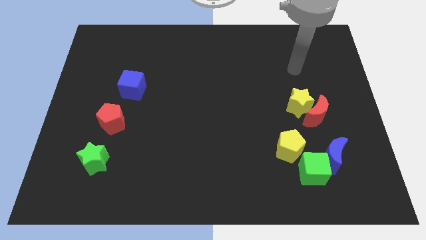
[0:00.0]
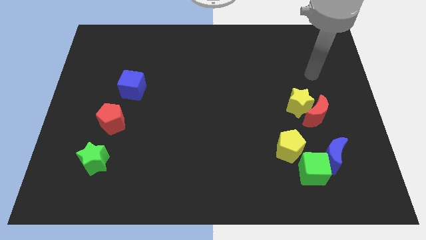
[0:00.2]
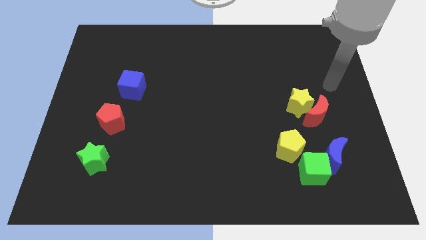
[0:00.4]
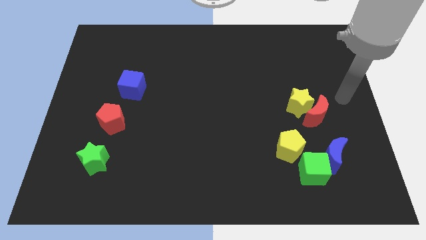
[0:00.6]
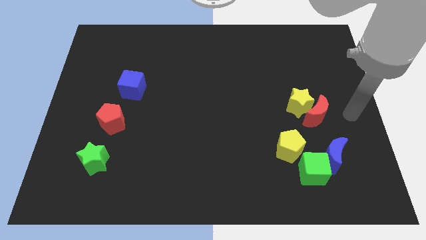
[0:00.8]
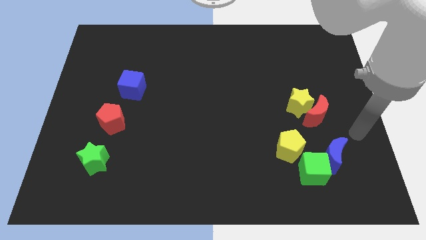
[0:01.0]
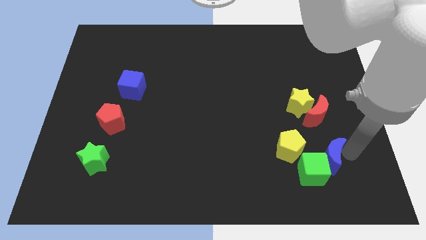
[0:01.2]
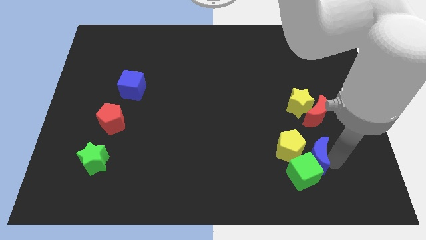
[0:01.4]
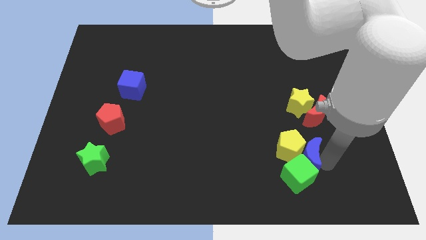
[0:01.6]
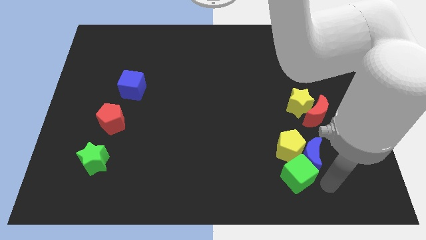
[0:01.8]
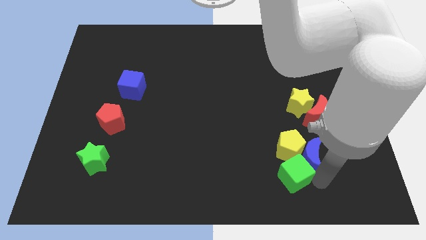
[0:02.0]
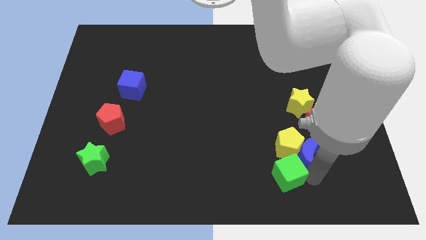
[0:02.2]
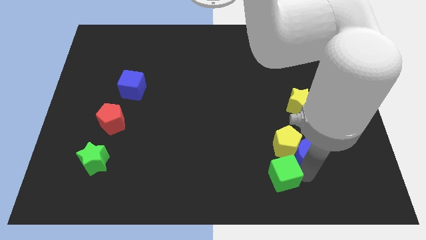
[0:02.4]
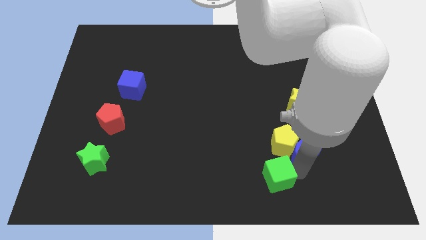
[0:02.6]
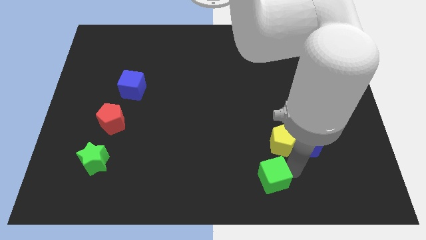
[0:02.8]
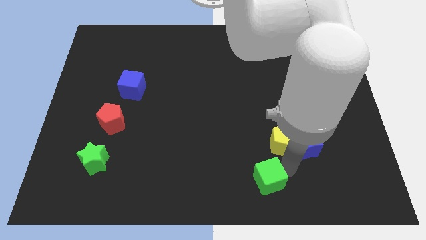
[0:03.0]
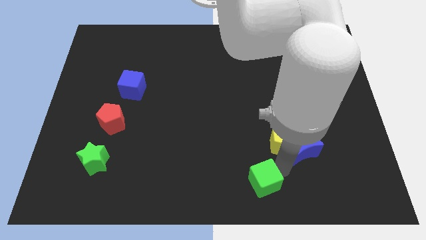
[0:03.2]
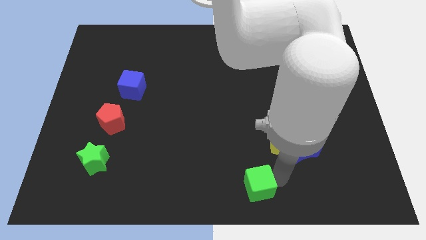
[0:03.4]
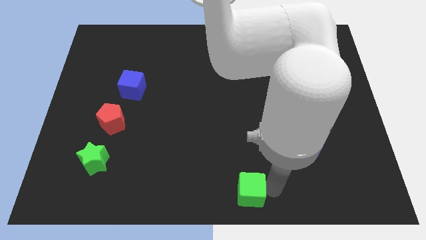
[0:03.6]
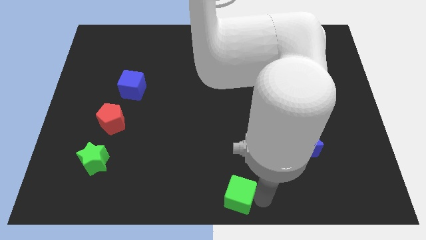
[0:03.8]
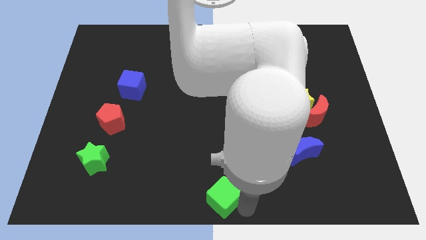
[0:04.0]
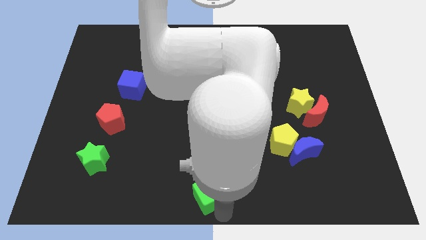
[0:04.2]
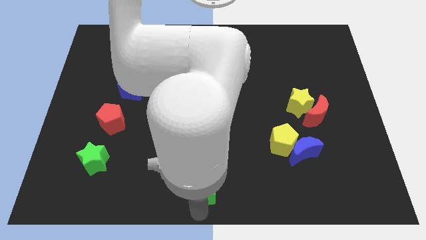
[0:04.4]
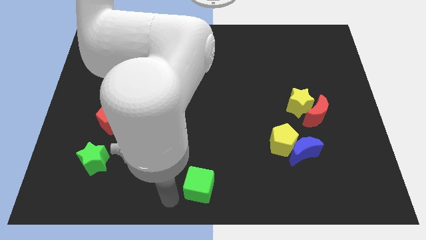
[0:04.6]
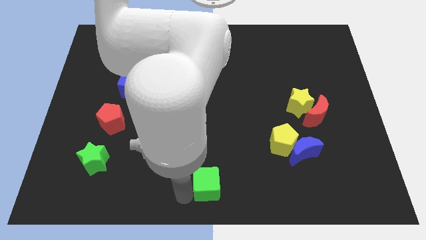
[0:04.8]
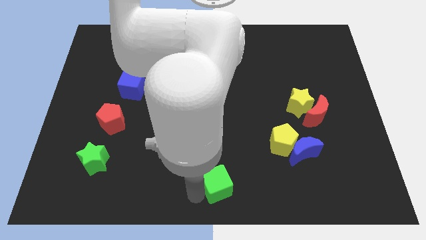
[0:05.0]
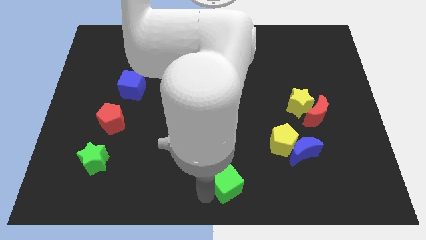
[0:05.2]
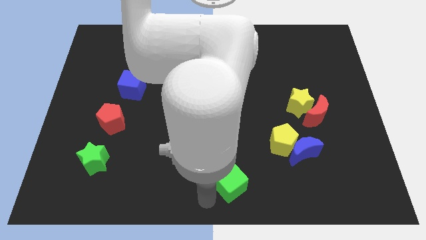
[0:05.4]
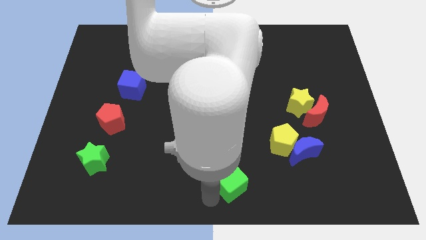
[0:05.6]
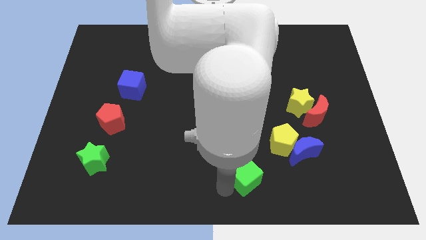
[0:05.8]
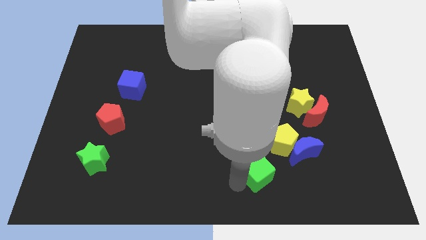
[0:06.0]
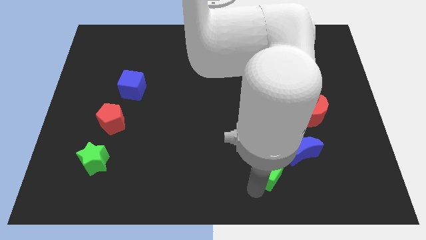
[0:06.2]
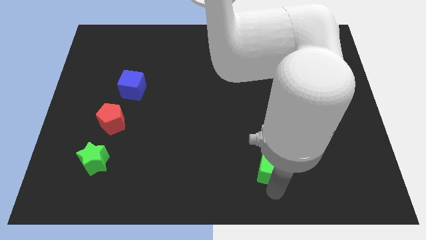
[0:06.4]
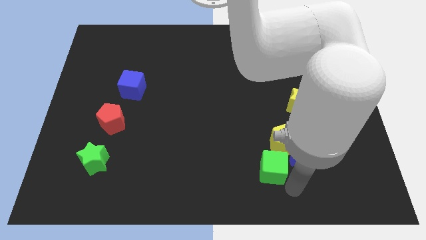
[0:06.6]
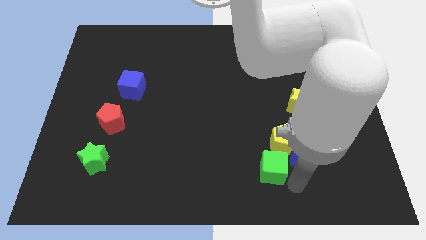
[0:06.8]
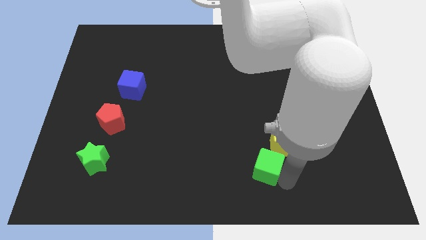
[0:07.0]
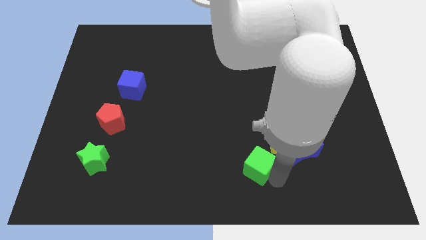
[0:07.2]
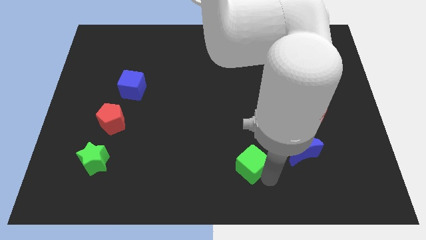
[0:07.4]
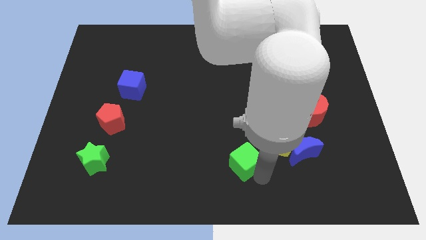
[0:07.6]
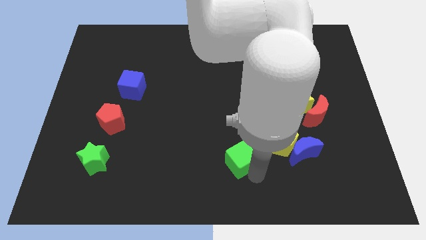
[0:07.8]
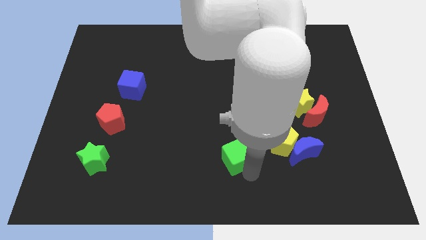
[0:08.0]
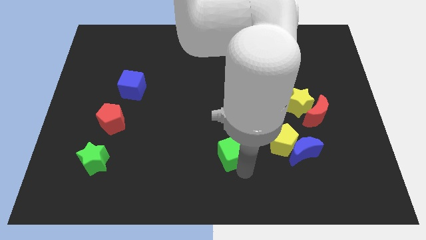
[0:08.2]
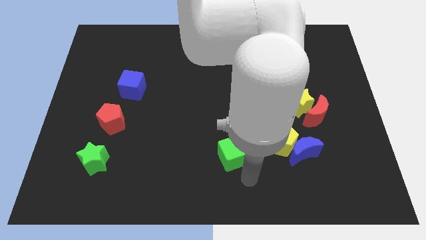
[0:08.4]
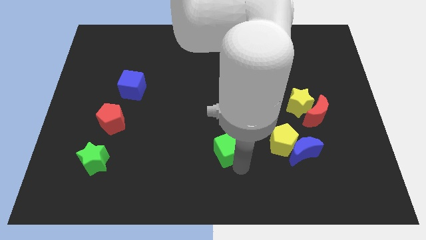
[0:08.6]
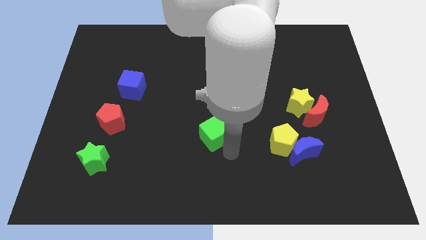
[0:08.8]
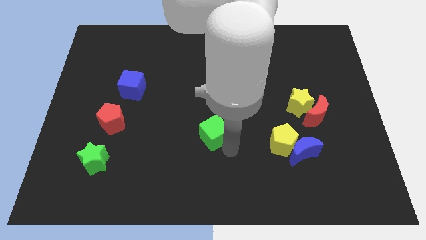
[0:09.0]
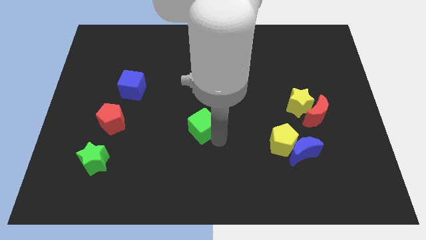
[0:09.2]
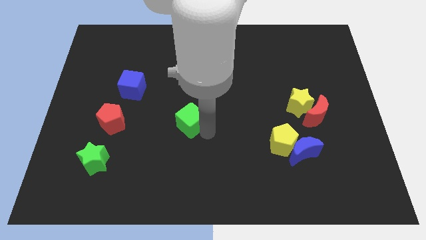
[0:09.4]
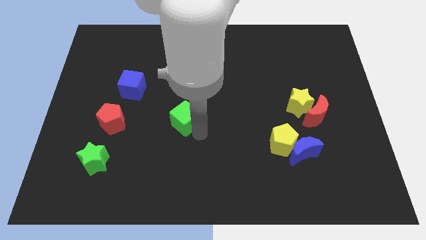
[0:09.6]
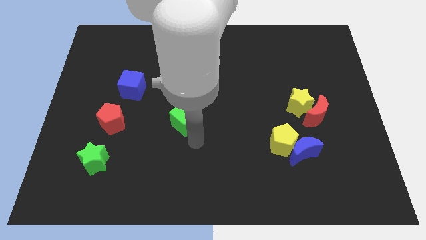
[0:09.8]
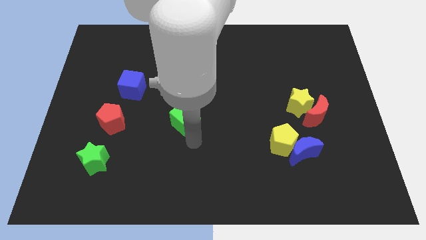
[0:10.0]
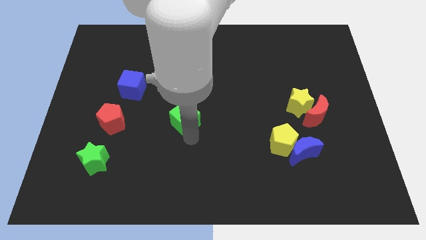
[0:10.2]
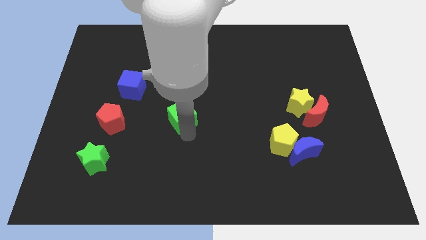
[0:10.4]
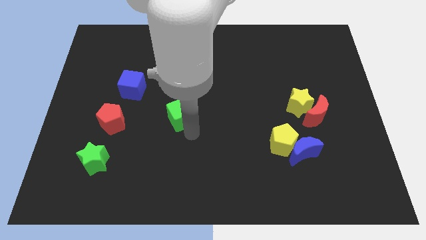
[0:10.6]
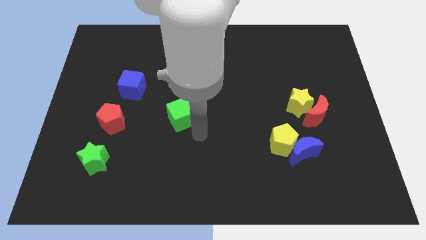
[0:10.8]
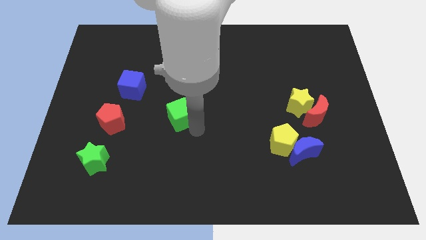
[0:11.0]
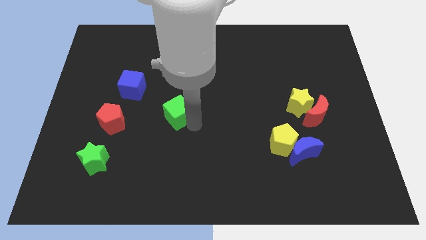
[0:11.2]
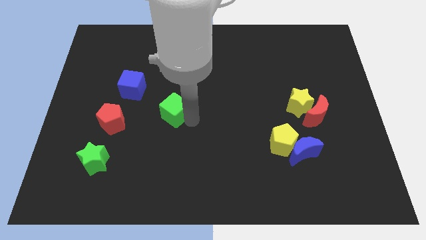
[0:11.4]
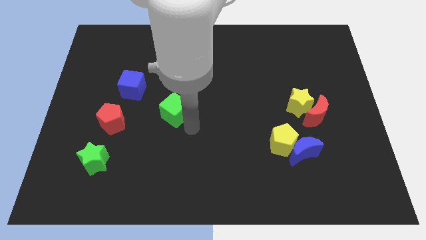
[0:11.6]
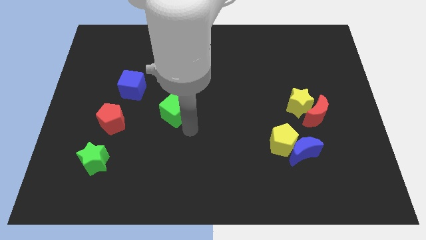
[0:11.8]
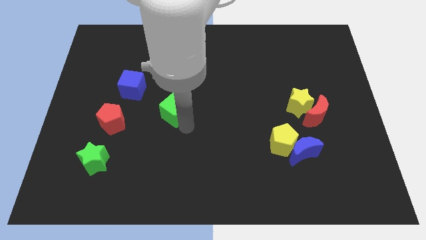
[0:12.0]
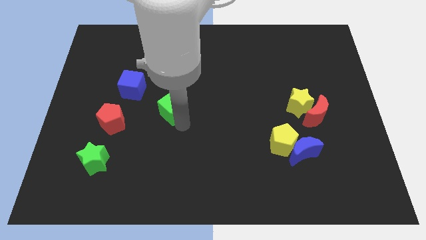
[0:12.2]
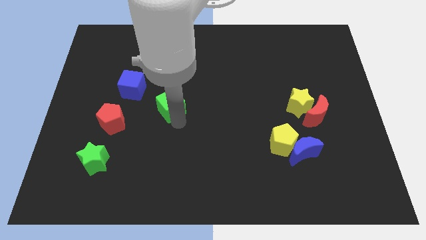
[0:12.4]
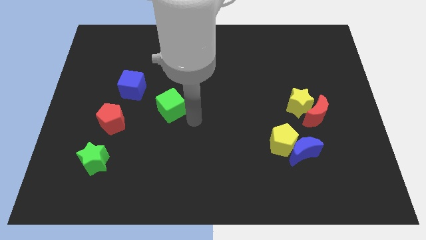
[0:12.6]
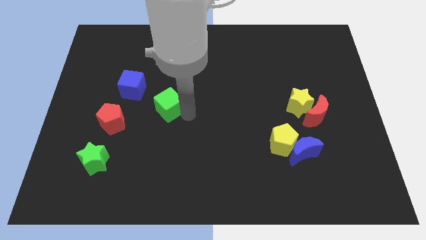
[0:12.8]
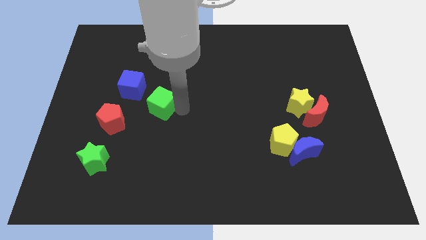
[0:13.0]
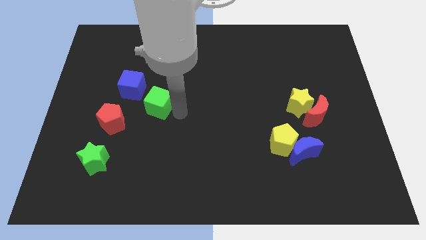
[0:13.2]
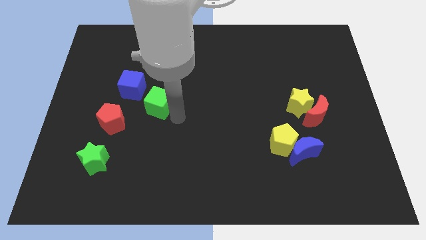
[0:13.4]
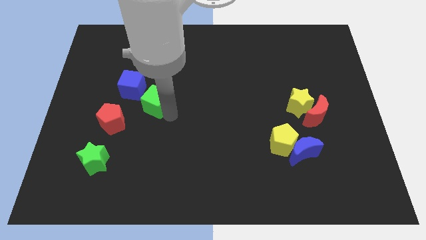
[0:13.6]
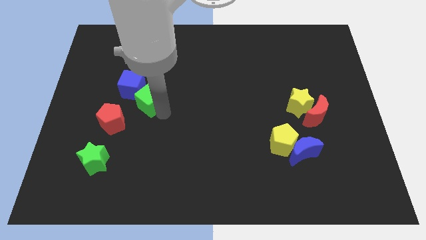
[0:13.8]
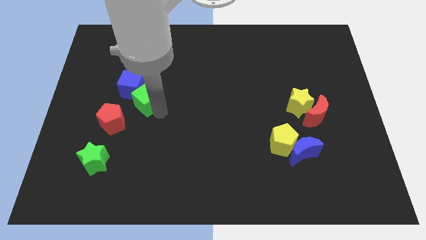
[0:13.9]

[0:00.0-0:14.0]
slide the green cube next to the blue cube

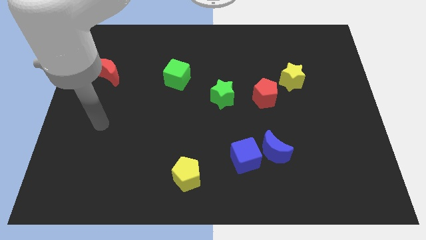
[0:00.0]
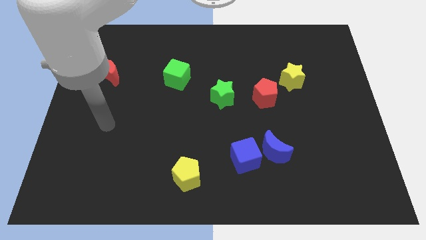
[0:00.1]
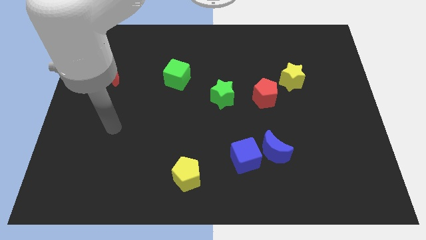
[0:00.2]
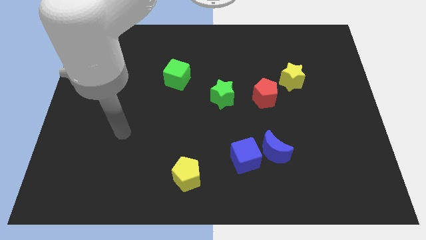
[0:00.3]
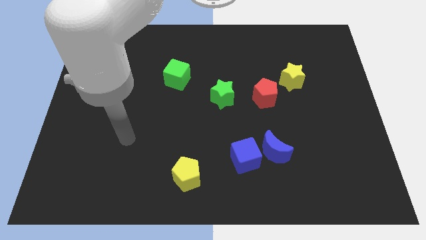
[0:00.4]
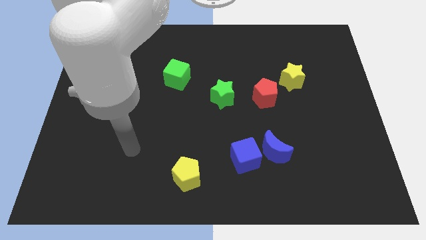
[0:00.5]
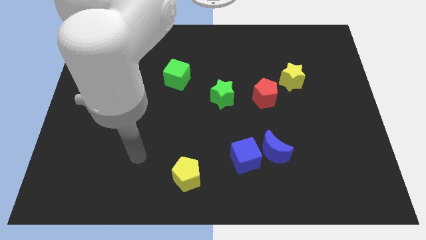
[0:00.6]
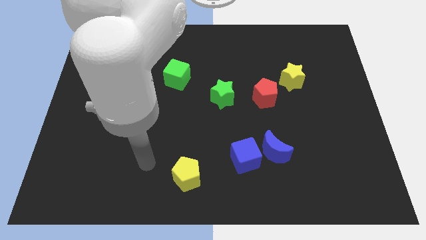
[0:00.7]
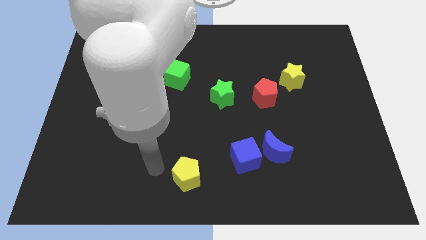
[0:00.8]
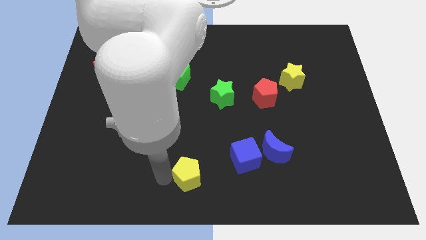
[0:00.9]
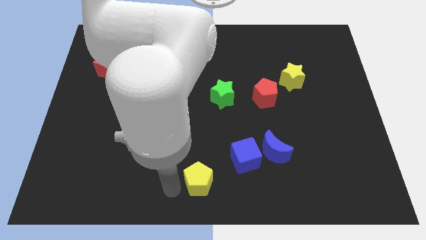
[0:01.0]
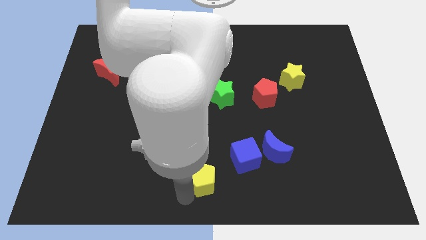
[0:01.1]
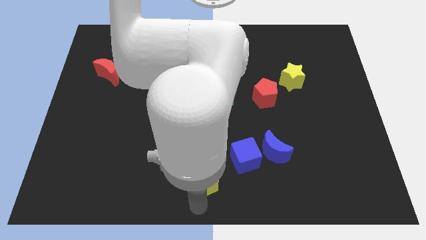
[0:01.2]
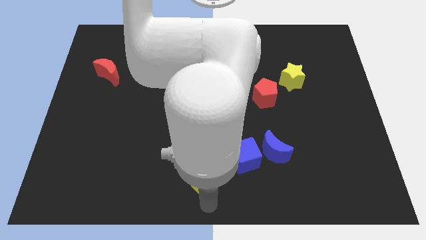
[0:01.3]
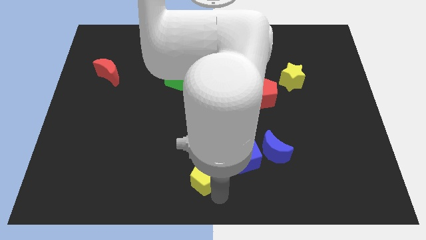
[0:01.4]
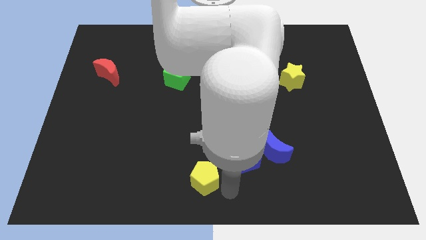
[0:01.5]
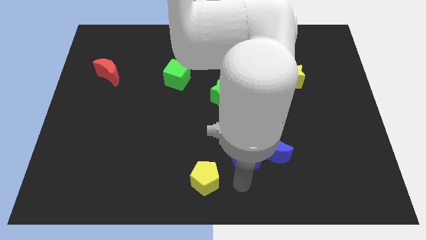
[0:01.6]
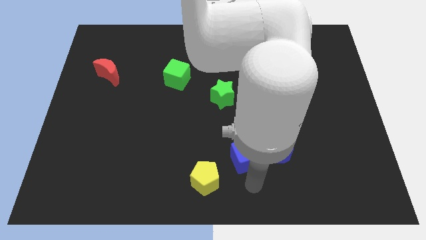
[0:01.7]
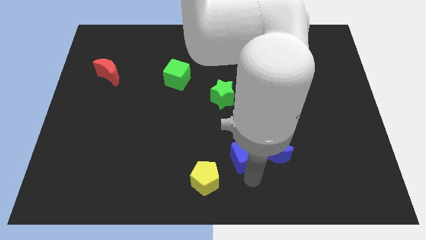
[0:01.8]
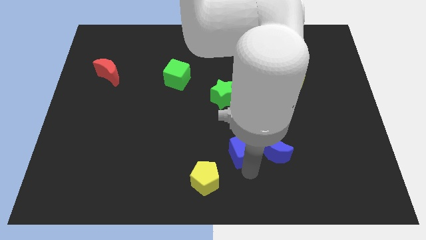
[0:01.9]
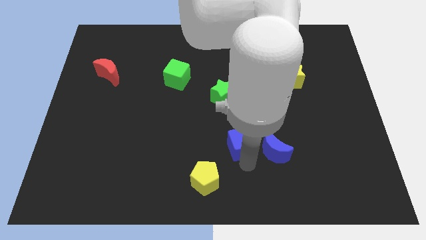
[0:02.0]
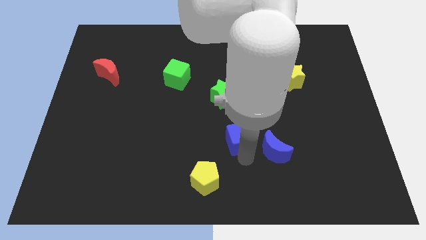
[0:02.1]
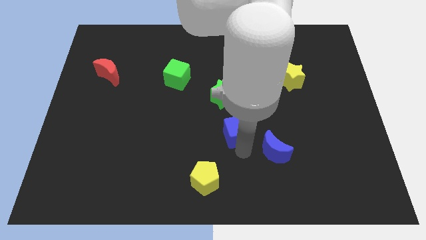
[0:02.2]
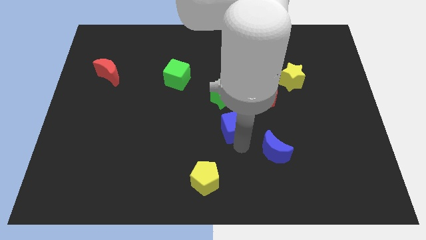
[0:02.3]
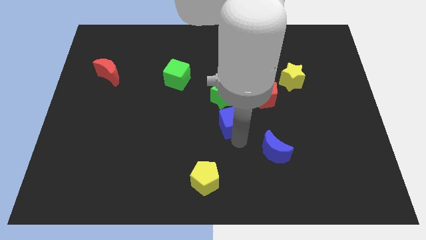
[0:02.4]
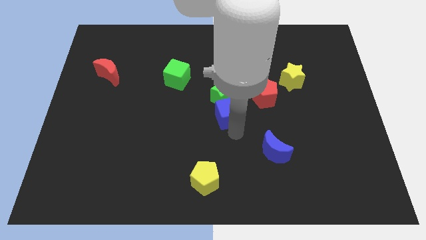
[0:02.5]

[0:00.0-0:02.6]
put the blue cube close to the green star
